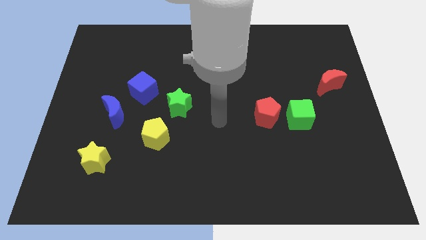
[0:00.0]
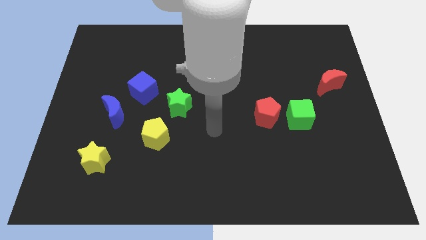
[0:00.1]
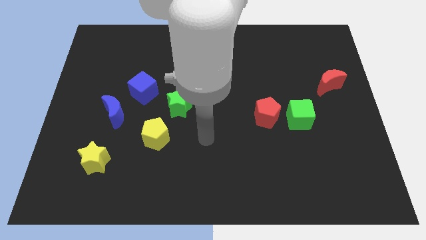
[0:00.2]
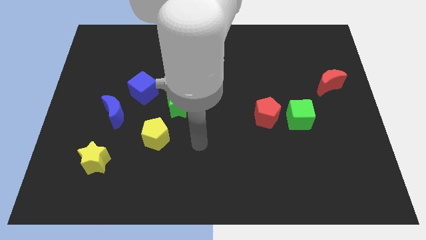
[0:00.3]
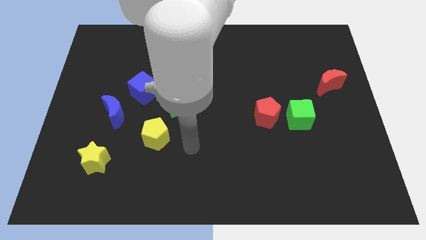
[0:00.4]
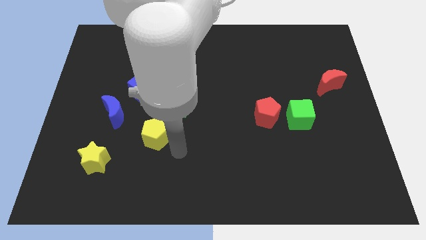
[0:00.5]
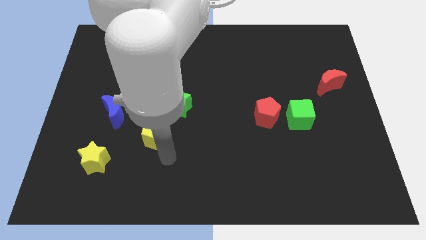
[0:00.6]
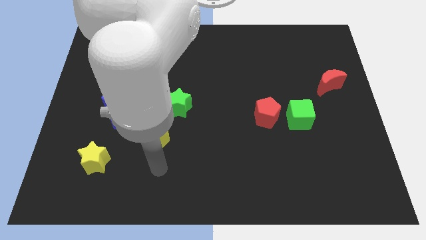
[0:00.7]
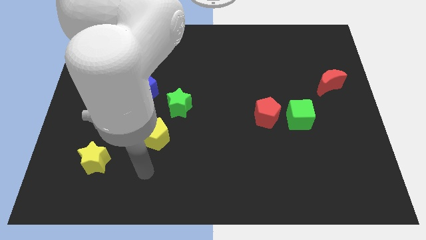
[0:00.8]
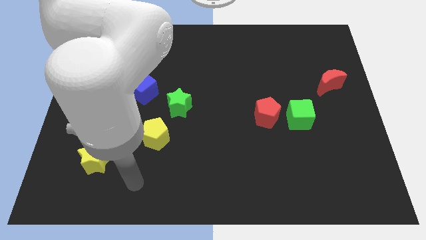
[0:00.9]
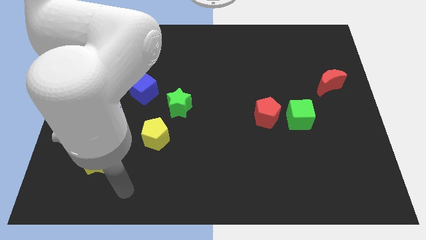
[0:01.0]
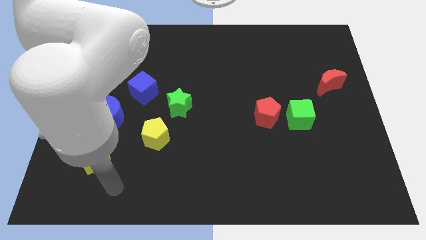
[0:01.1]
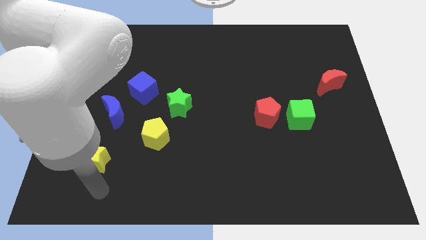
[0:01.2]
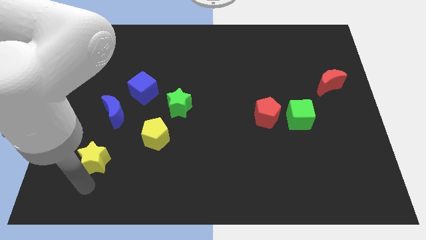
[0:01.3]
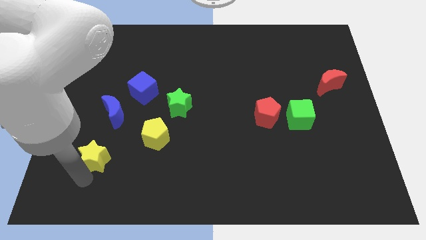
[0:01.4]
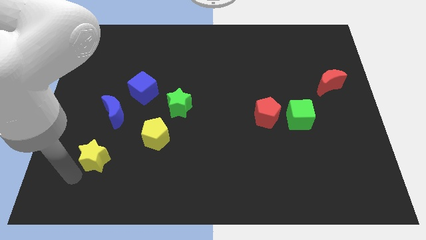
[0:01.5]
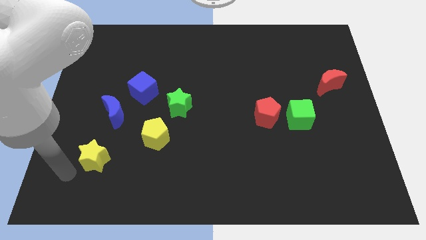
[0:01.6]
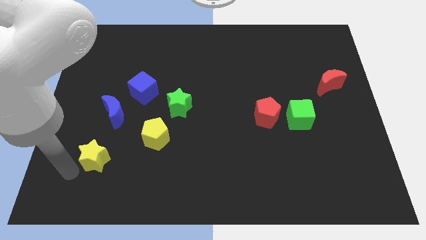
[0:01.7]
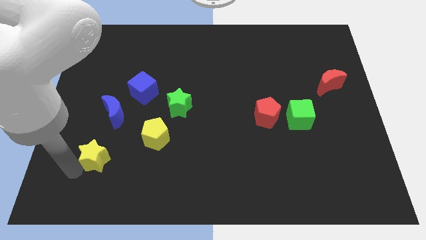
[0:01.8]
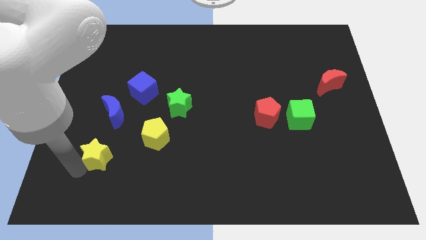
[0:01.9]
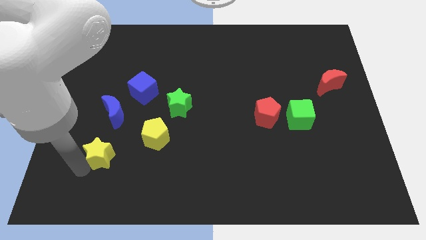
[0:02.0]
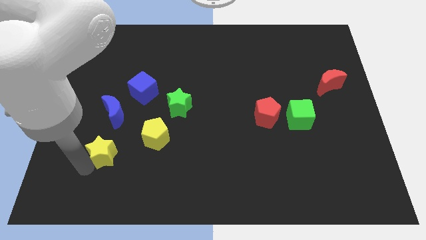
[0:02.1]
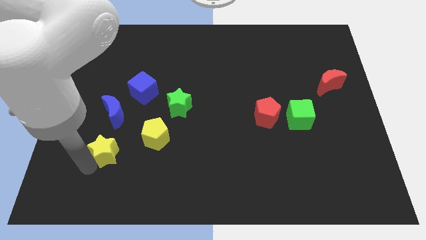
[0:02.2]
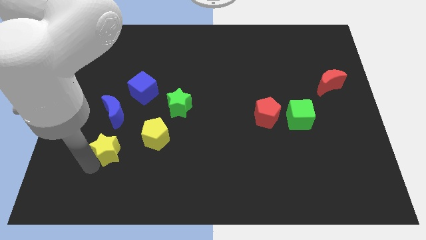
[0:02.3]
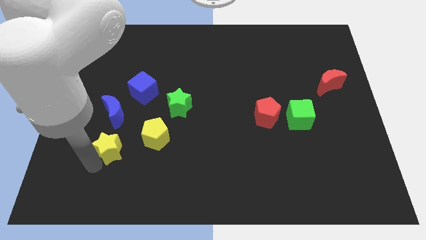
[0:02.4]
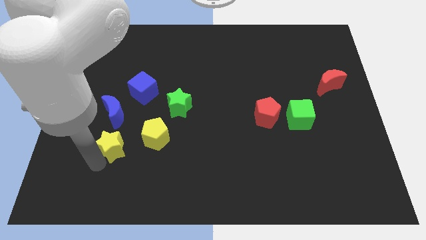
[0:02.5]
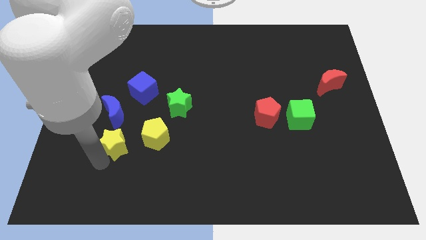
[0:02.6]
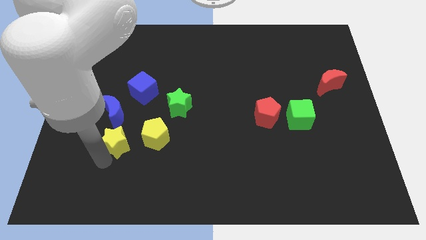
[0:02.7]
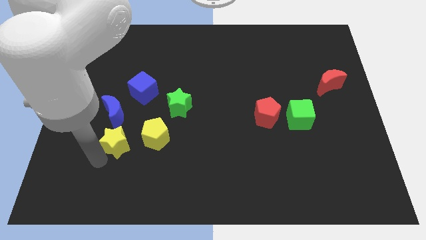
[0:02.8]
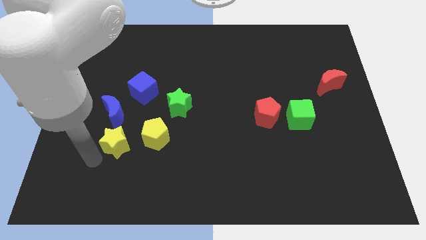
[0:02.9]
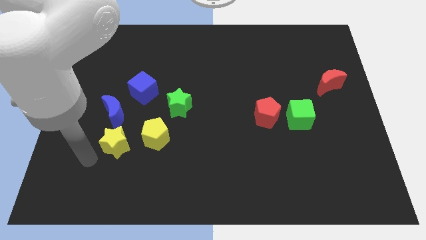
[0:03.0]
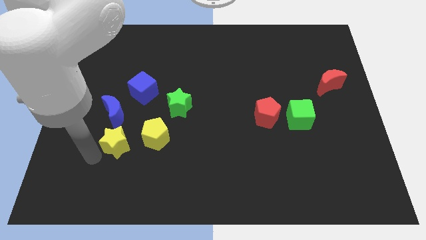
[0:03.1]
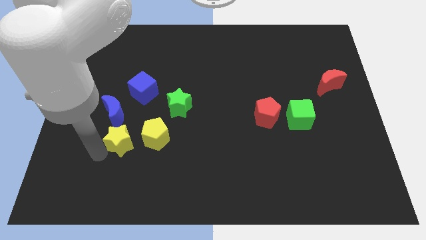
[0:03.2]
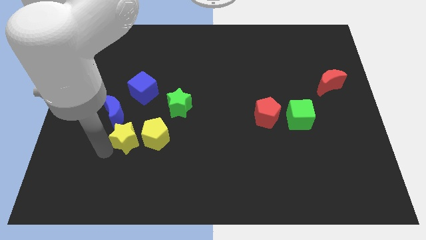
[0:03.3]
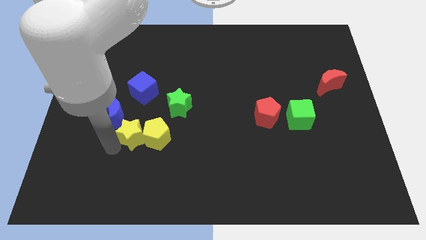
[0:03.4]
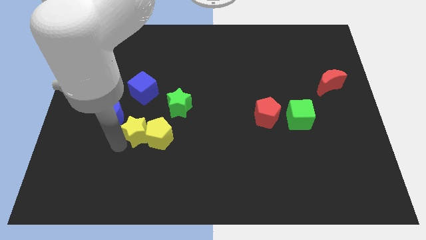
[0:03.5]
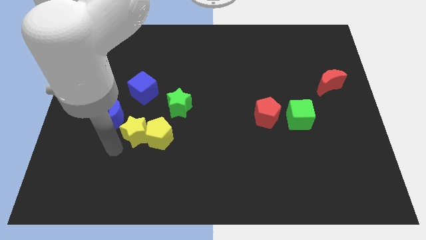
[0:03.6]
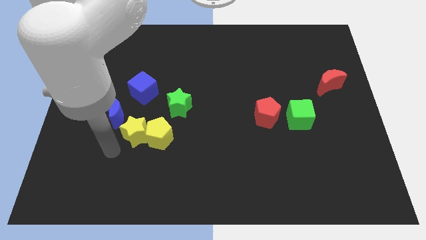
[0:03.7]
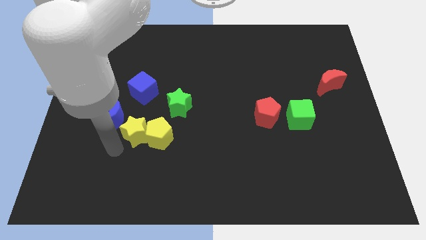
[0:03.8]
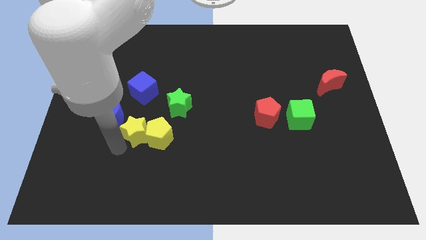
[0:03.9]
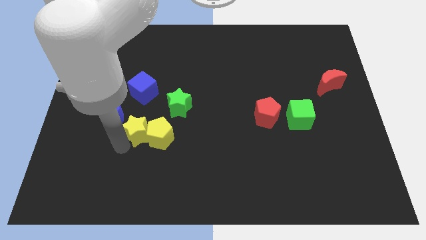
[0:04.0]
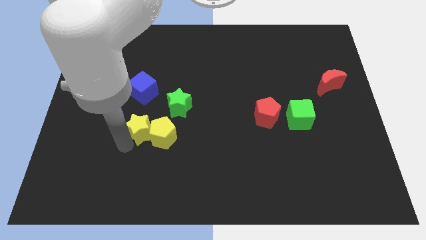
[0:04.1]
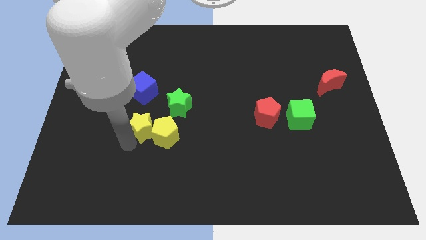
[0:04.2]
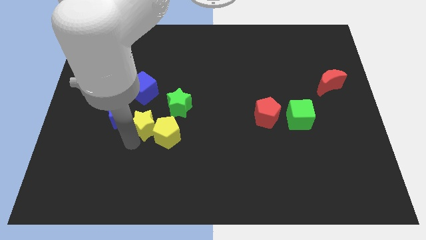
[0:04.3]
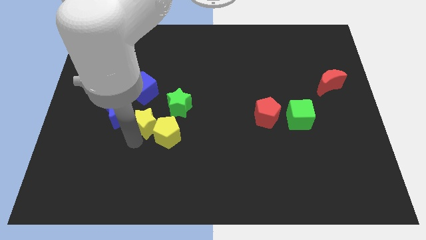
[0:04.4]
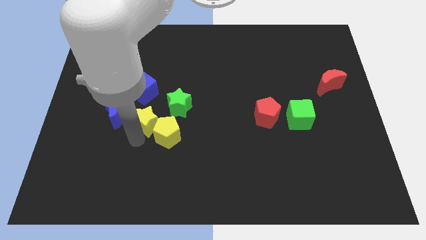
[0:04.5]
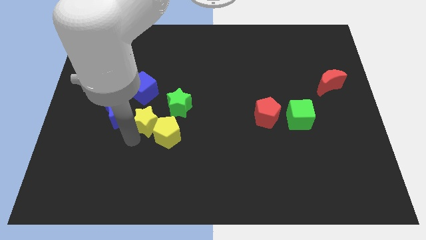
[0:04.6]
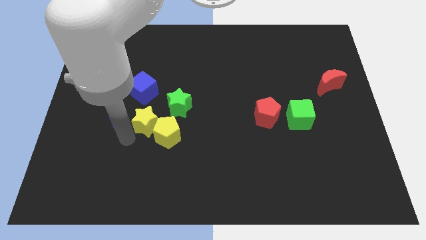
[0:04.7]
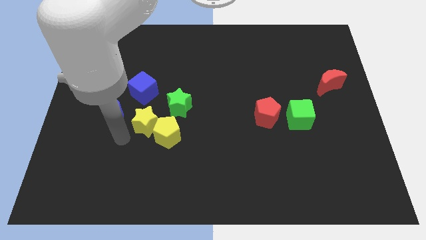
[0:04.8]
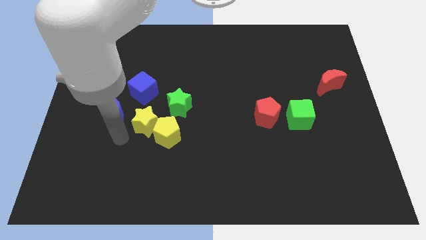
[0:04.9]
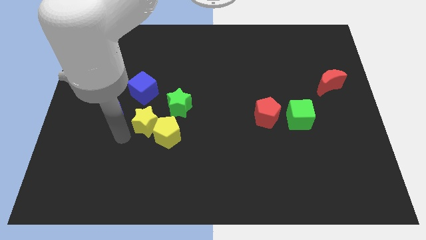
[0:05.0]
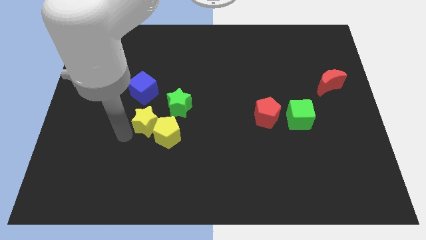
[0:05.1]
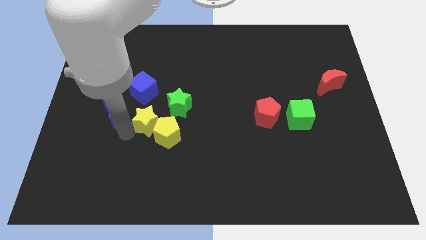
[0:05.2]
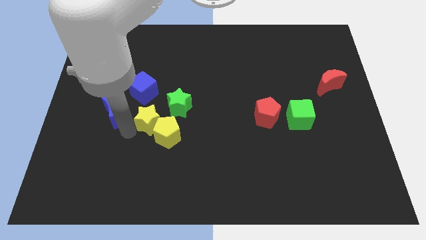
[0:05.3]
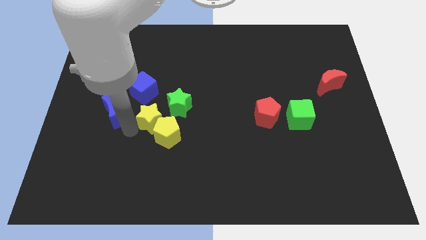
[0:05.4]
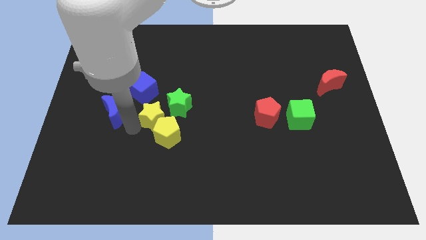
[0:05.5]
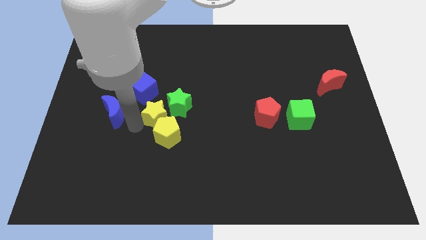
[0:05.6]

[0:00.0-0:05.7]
push the yellow star towards the green star
